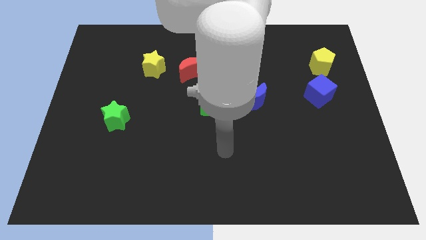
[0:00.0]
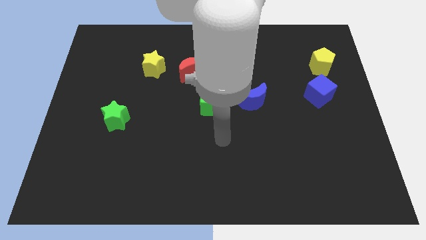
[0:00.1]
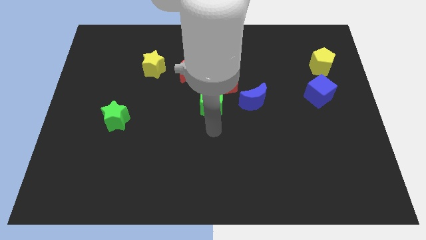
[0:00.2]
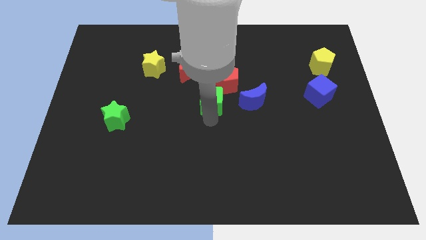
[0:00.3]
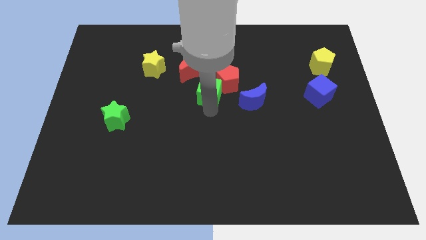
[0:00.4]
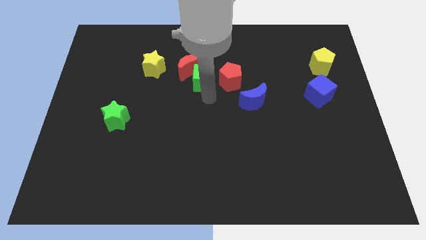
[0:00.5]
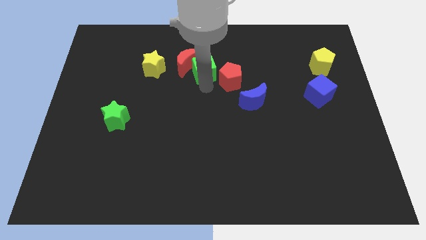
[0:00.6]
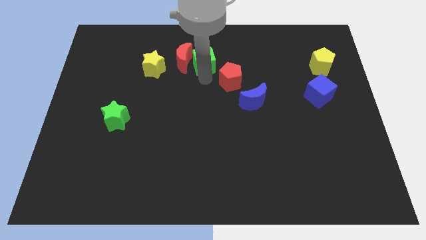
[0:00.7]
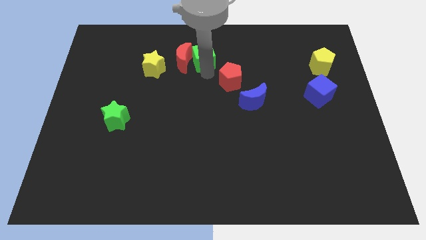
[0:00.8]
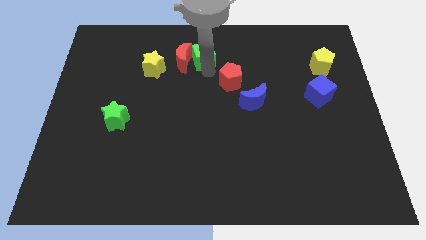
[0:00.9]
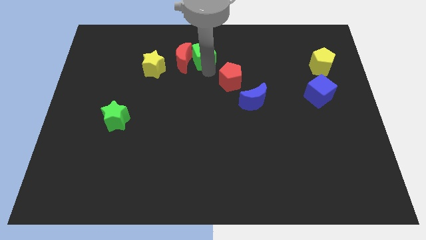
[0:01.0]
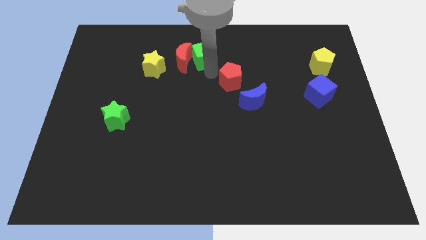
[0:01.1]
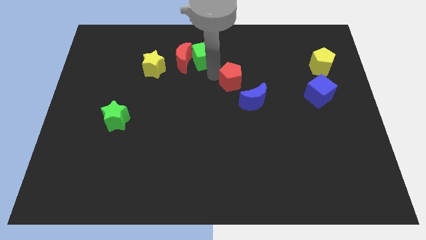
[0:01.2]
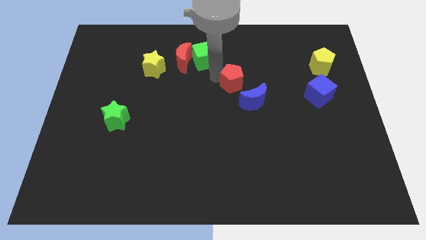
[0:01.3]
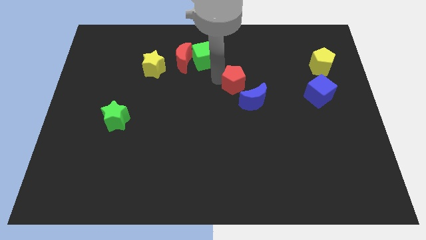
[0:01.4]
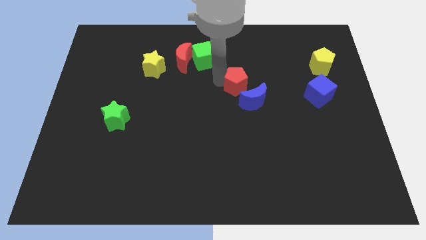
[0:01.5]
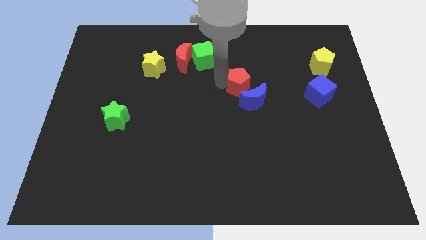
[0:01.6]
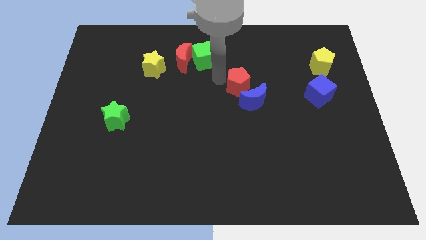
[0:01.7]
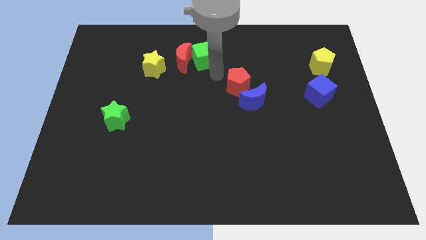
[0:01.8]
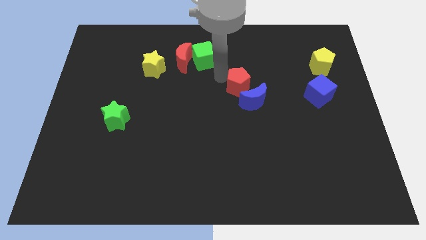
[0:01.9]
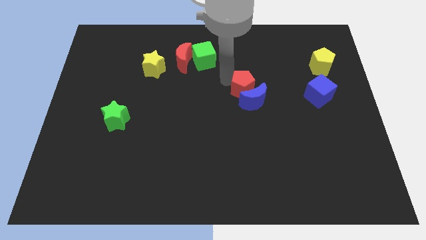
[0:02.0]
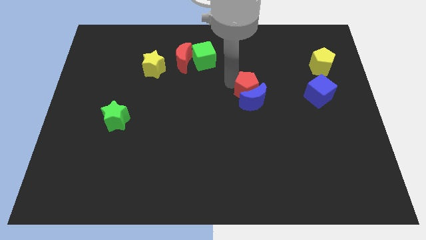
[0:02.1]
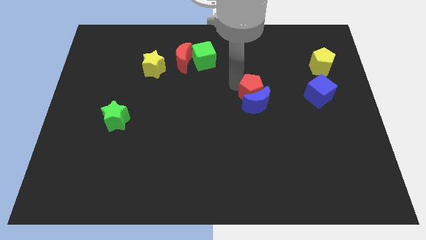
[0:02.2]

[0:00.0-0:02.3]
move the red pentagon away from the group

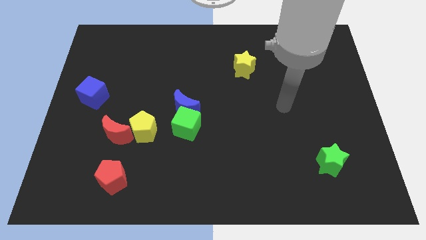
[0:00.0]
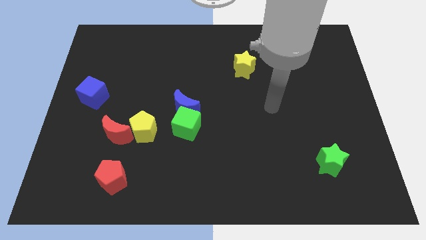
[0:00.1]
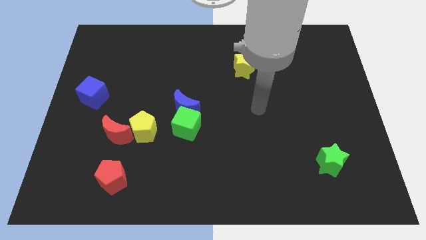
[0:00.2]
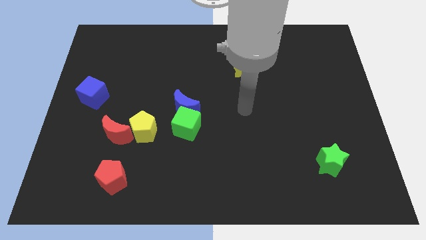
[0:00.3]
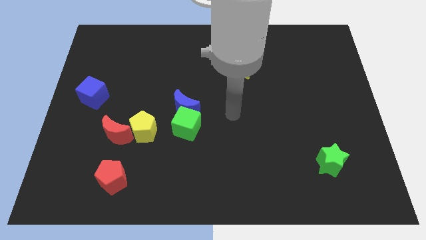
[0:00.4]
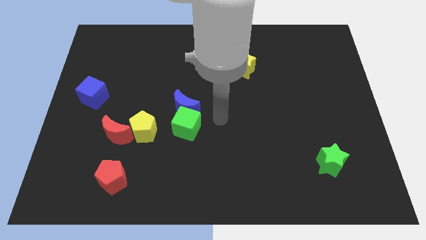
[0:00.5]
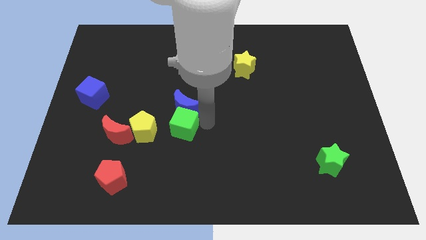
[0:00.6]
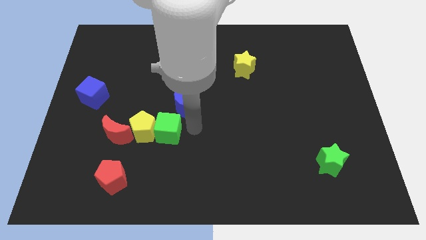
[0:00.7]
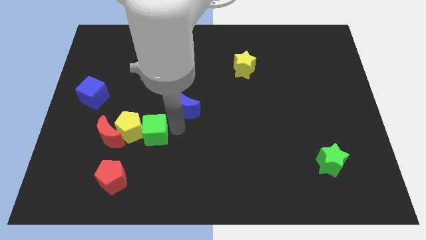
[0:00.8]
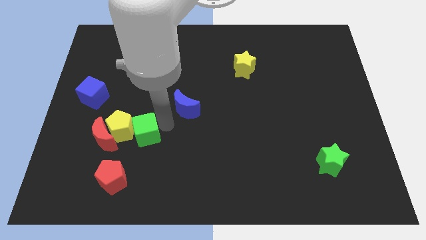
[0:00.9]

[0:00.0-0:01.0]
move the blue moon away from the green cube

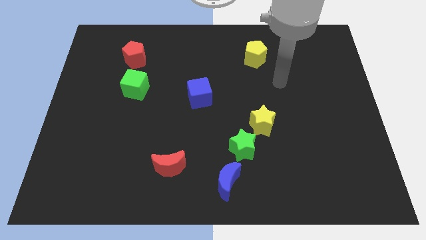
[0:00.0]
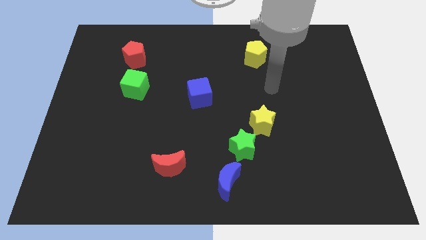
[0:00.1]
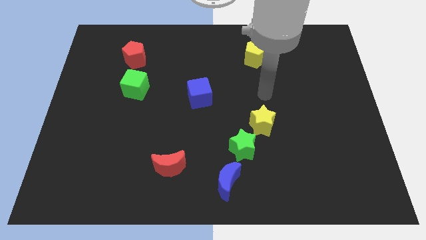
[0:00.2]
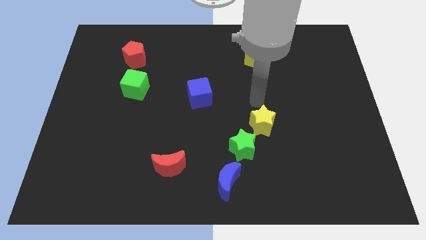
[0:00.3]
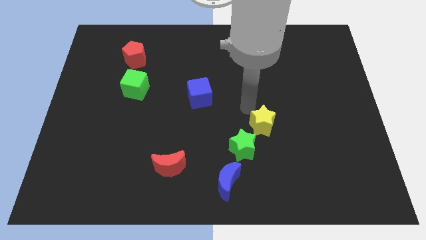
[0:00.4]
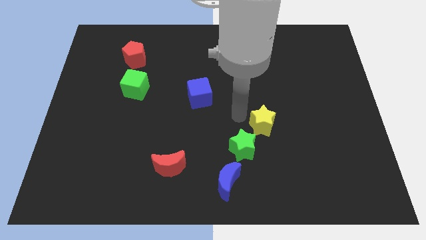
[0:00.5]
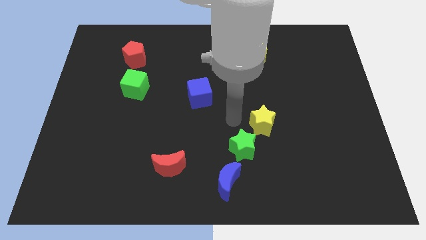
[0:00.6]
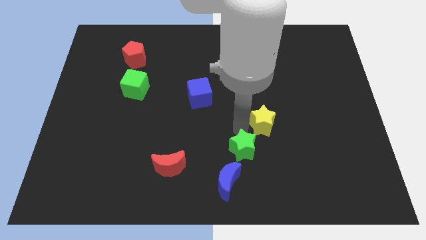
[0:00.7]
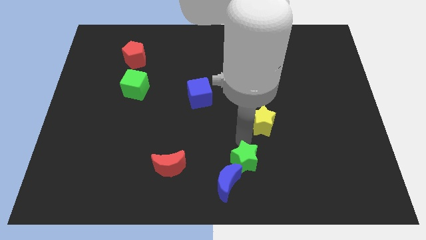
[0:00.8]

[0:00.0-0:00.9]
pull the yellow star apart from the green star

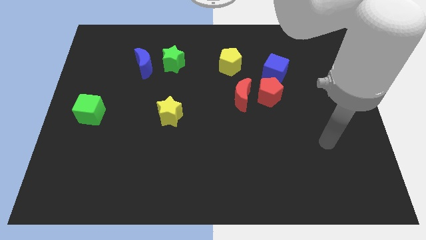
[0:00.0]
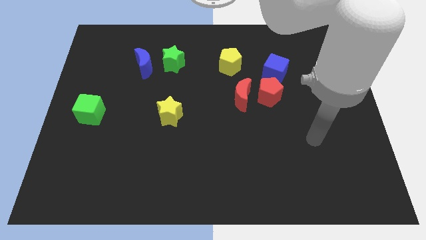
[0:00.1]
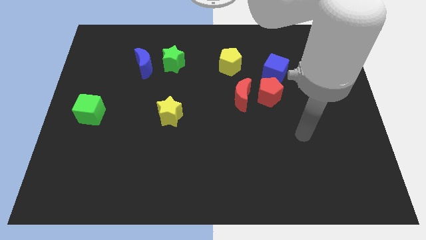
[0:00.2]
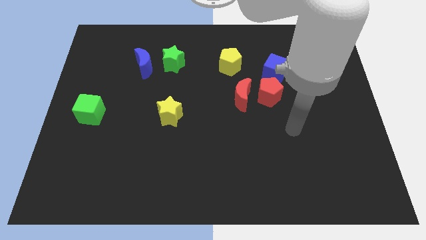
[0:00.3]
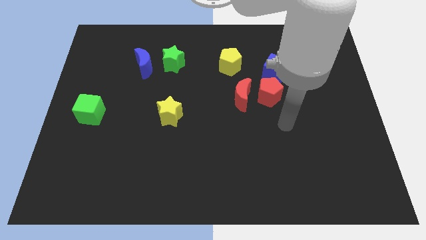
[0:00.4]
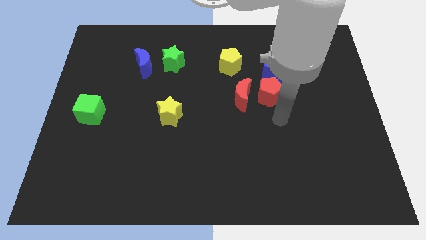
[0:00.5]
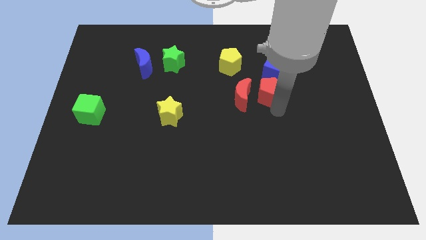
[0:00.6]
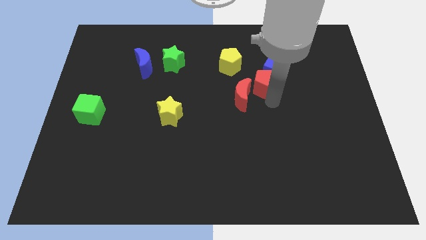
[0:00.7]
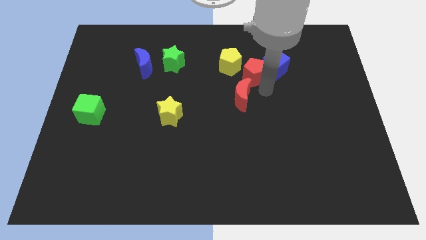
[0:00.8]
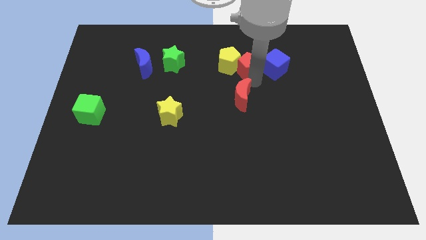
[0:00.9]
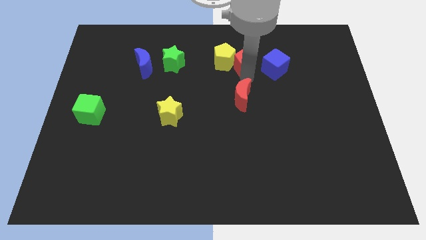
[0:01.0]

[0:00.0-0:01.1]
separate the red moon from the red pentagon

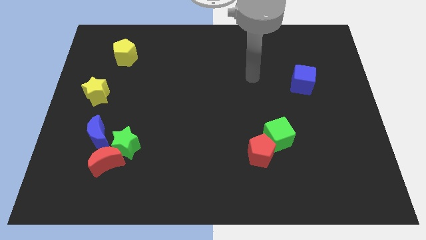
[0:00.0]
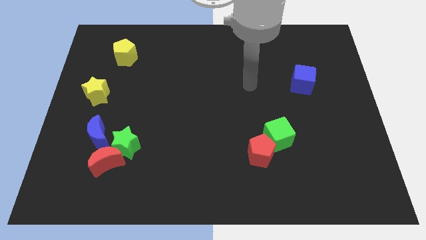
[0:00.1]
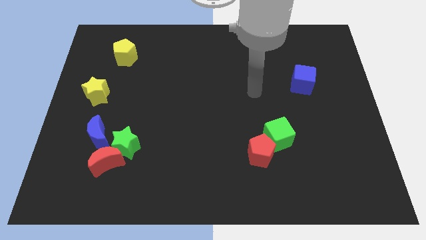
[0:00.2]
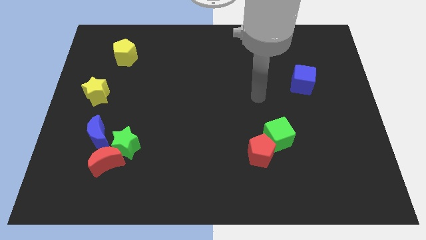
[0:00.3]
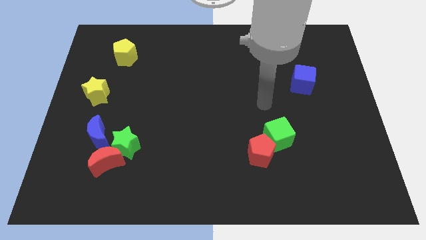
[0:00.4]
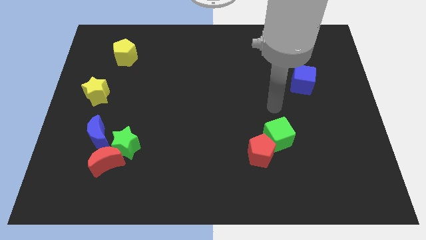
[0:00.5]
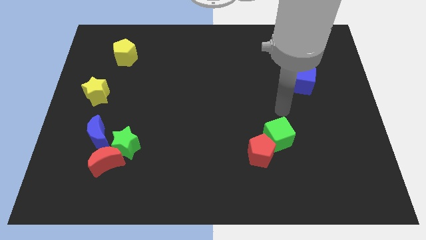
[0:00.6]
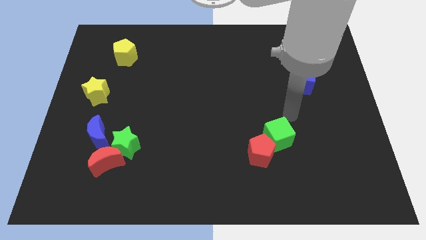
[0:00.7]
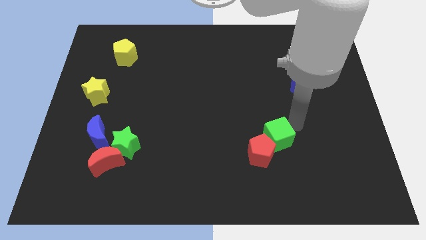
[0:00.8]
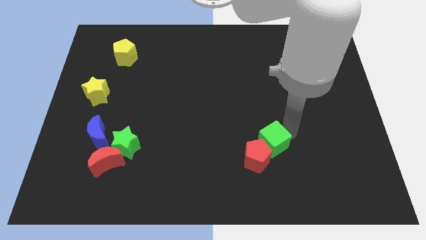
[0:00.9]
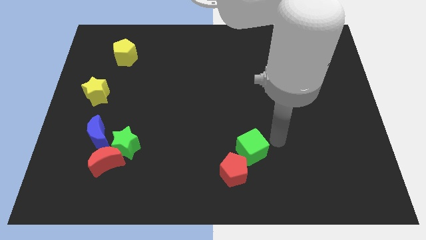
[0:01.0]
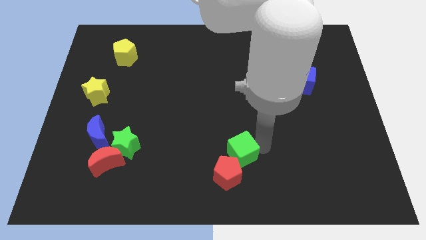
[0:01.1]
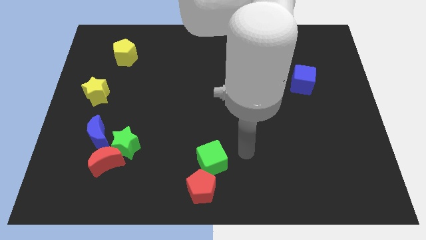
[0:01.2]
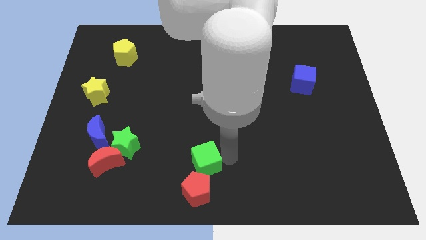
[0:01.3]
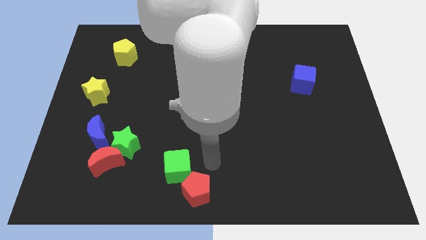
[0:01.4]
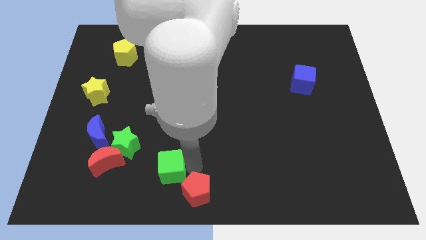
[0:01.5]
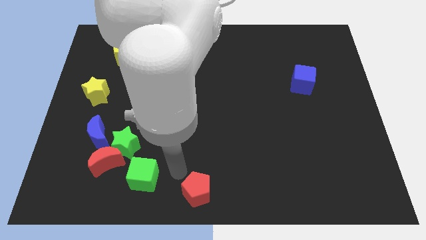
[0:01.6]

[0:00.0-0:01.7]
pull the red pentagon apart from the green cube

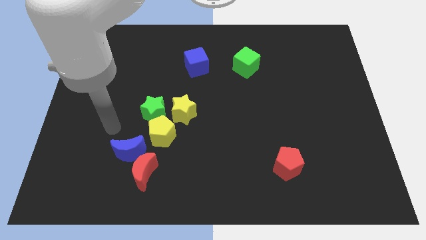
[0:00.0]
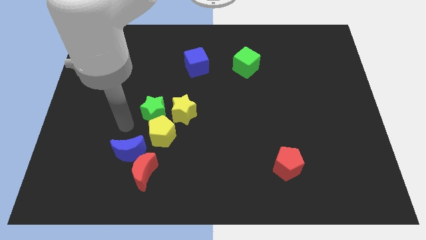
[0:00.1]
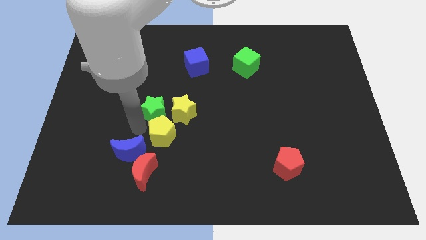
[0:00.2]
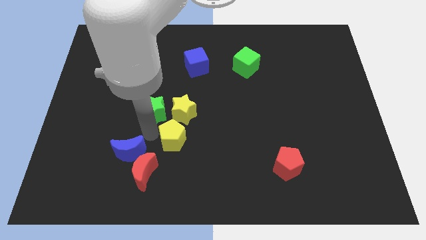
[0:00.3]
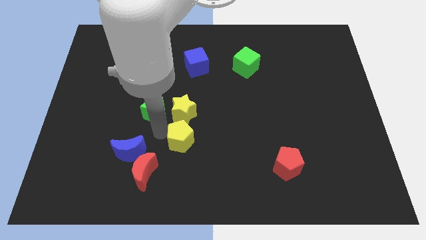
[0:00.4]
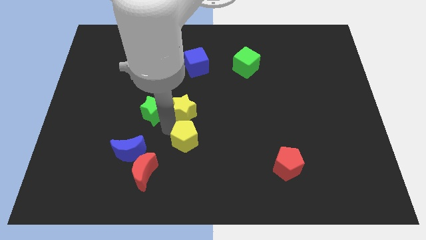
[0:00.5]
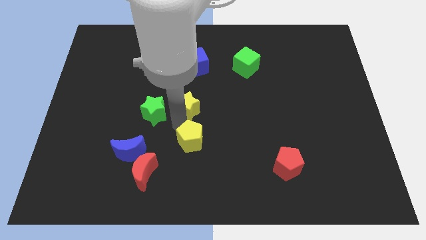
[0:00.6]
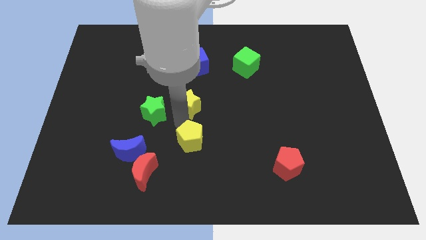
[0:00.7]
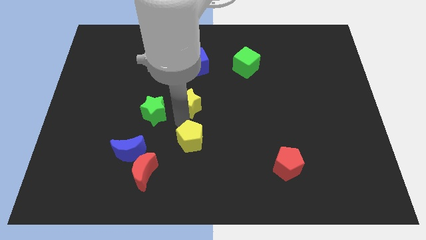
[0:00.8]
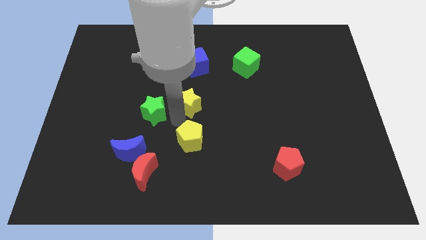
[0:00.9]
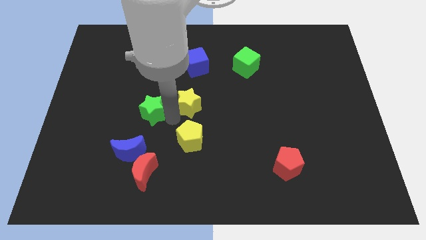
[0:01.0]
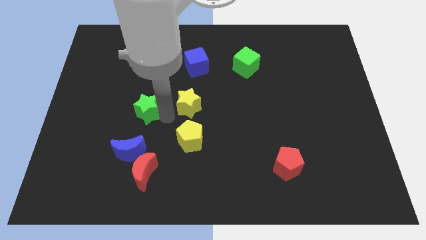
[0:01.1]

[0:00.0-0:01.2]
move the green star away from the yellow pentagon and yellow star

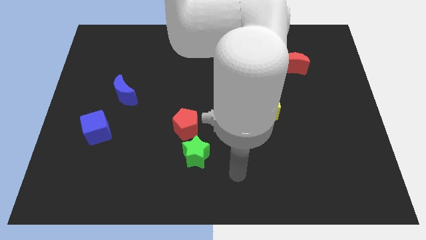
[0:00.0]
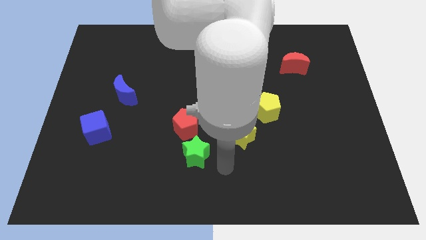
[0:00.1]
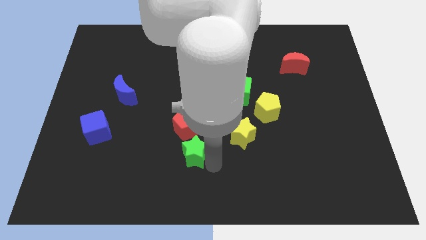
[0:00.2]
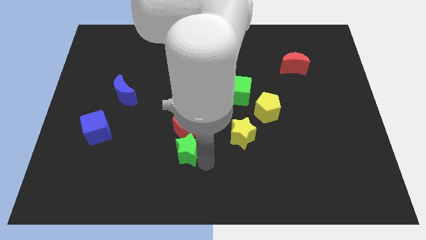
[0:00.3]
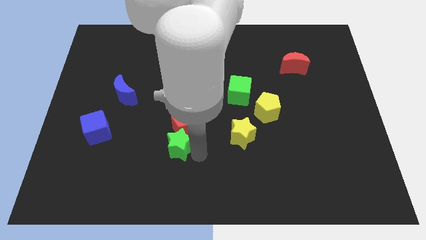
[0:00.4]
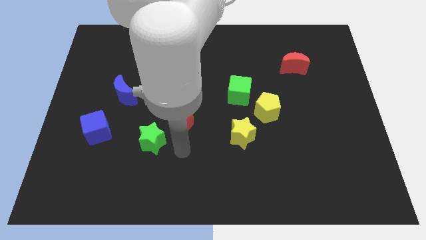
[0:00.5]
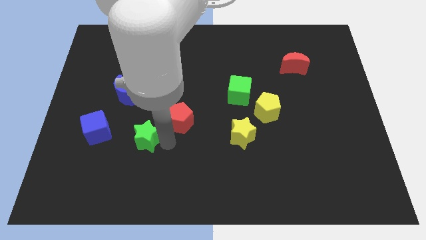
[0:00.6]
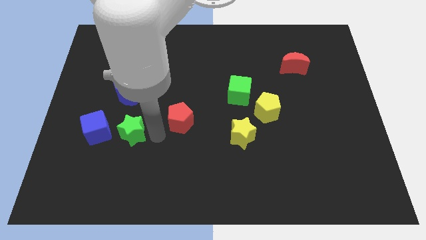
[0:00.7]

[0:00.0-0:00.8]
separate the red pentagon from the green star

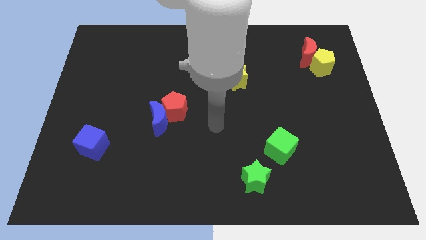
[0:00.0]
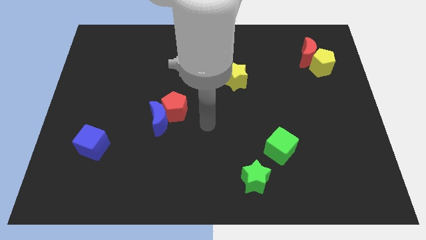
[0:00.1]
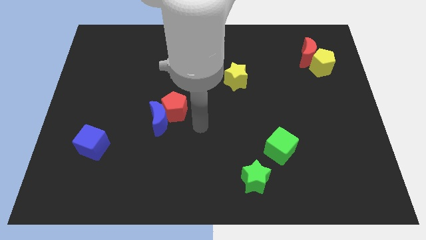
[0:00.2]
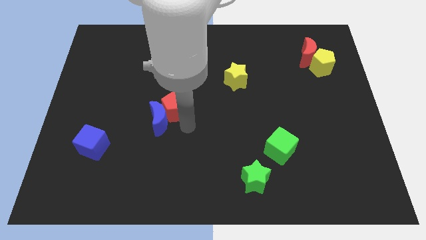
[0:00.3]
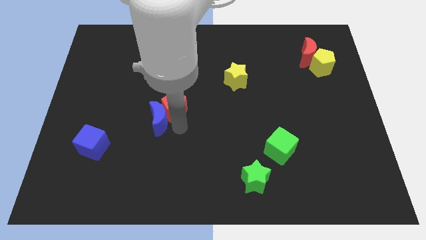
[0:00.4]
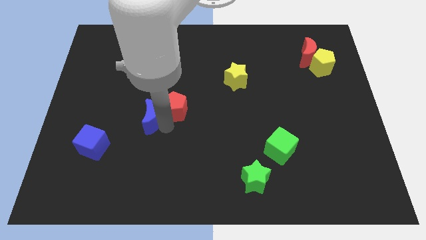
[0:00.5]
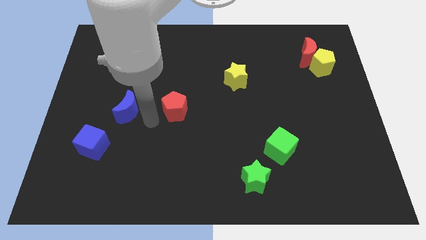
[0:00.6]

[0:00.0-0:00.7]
pull the red pentagon apart from the blue moon
